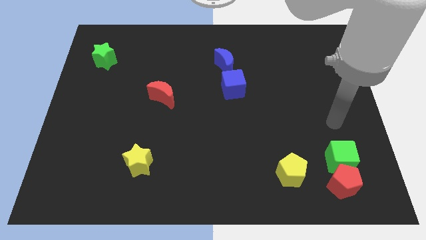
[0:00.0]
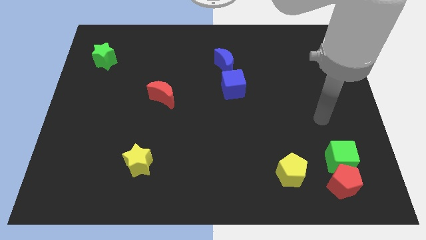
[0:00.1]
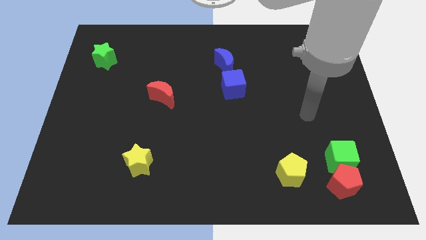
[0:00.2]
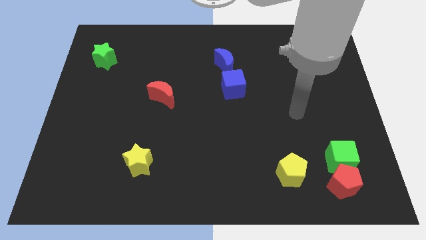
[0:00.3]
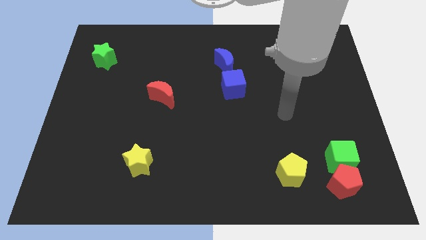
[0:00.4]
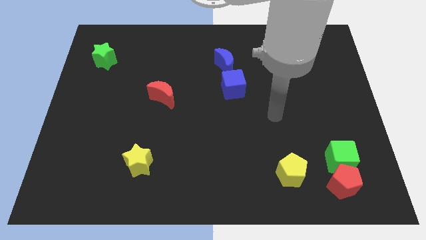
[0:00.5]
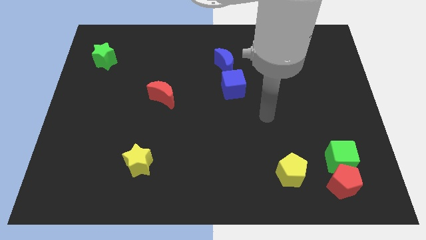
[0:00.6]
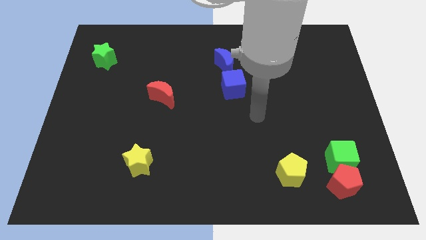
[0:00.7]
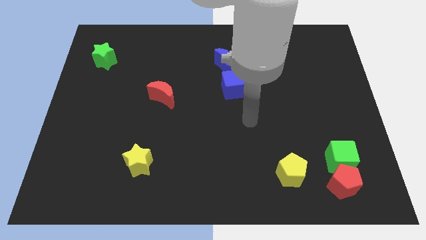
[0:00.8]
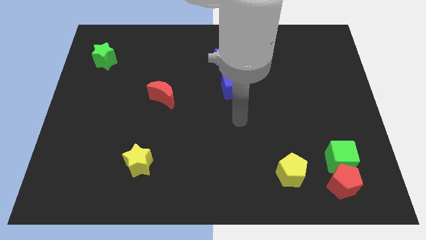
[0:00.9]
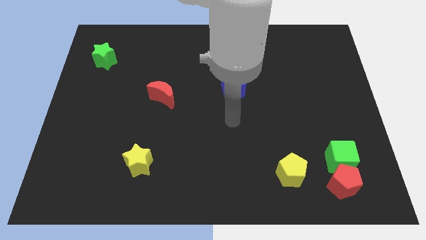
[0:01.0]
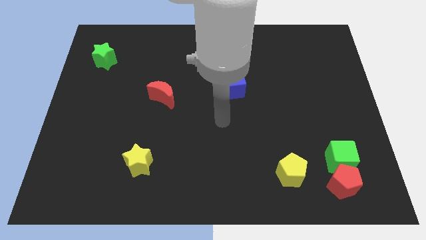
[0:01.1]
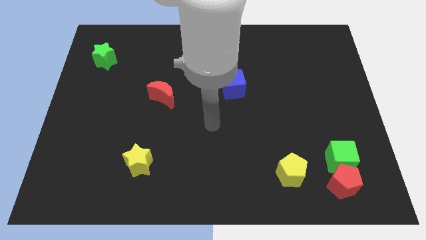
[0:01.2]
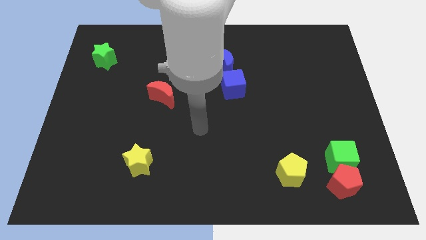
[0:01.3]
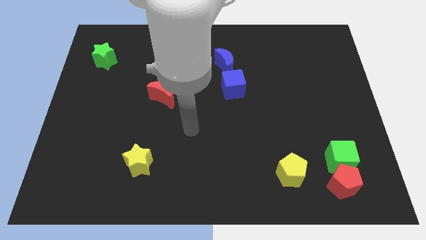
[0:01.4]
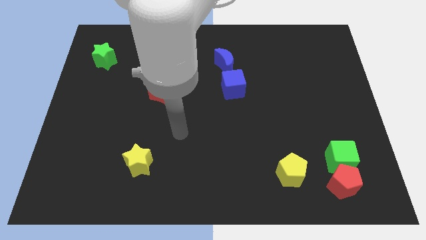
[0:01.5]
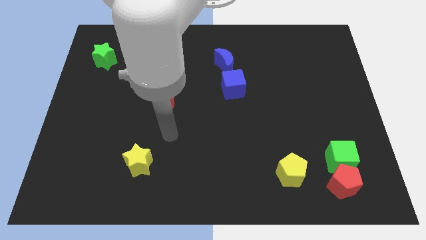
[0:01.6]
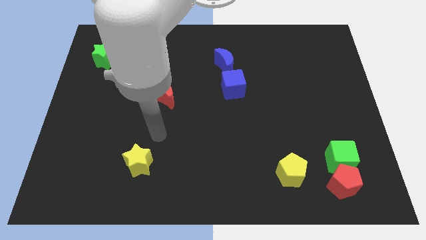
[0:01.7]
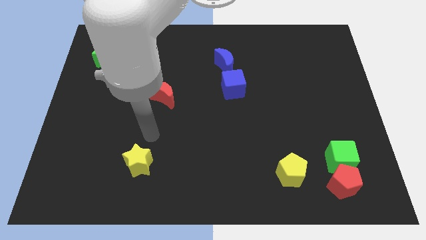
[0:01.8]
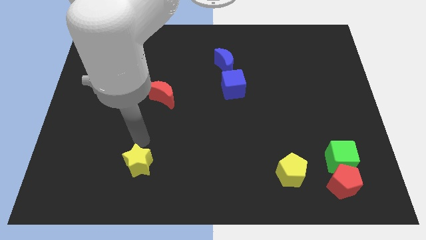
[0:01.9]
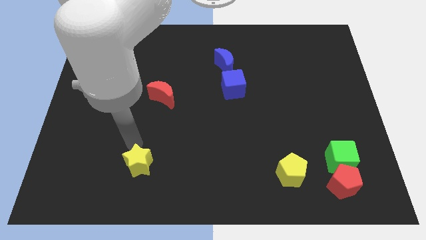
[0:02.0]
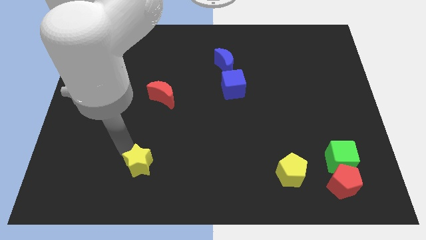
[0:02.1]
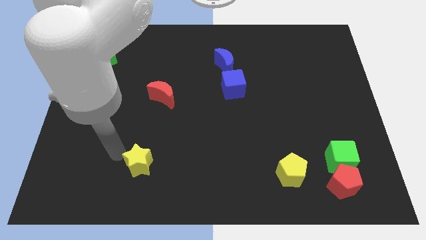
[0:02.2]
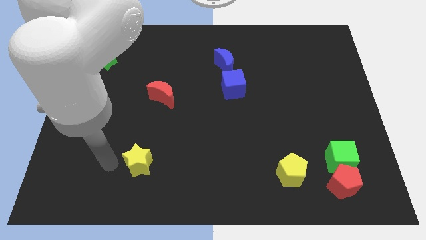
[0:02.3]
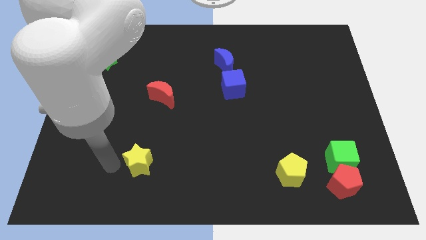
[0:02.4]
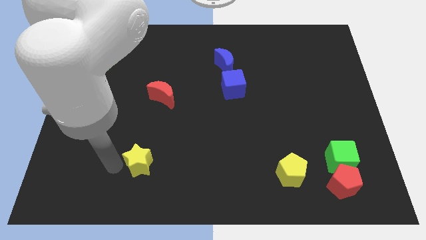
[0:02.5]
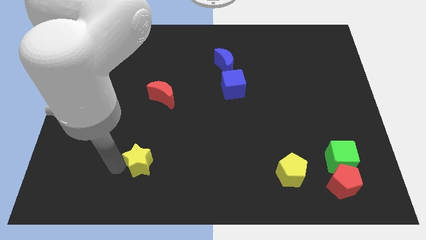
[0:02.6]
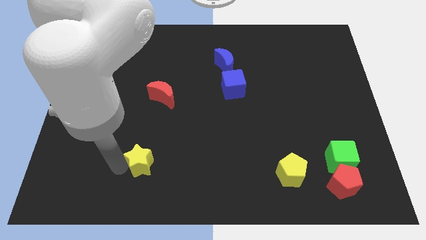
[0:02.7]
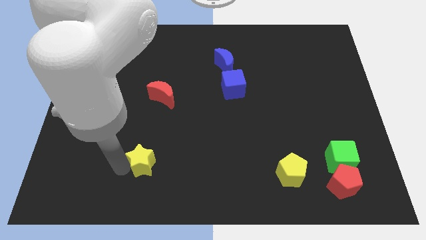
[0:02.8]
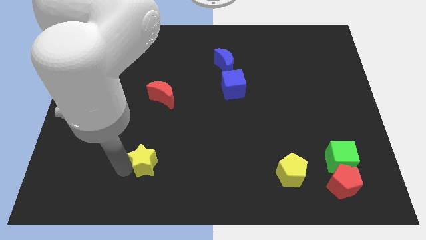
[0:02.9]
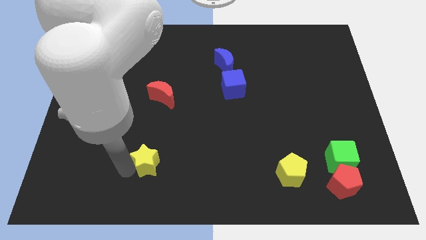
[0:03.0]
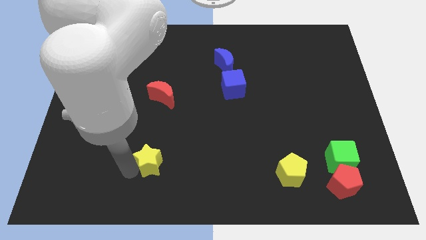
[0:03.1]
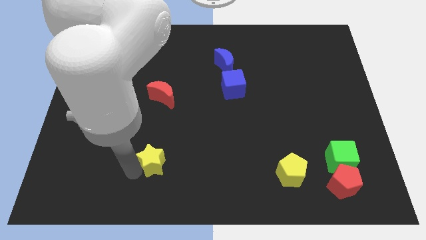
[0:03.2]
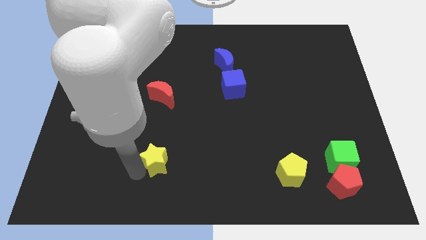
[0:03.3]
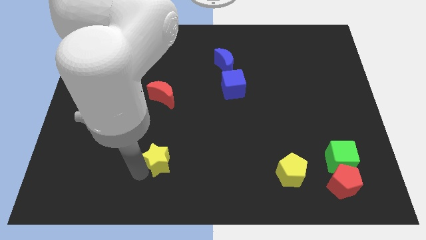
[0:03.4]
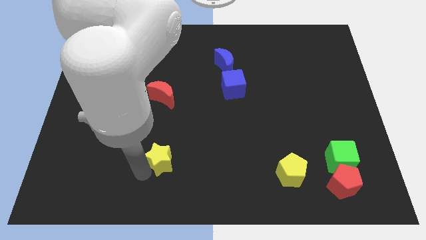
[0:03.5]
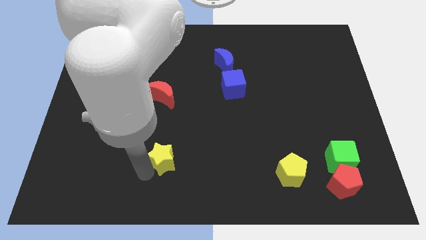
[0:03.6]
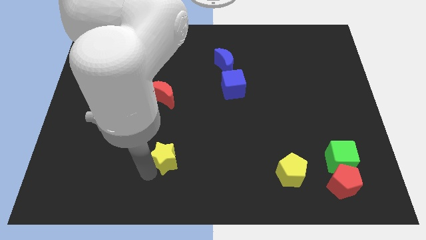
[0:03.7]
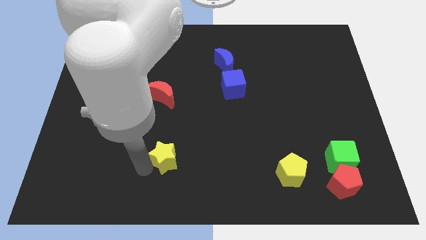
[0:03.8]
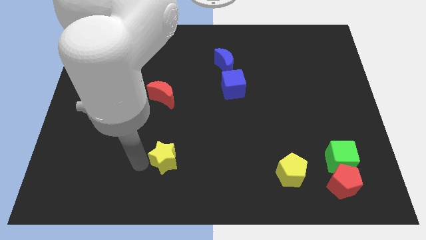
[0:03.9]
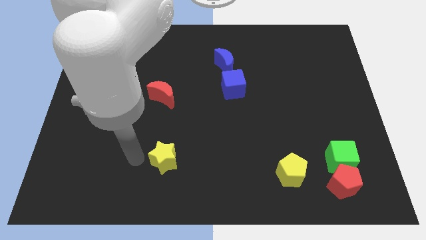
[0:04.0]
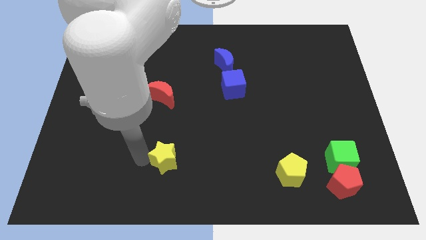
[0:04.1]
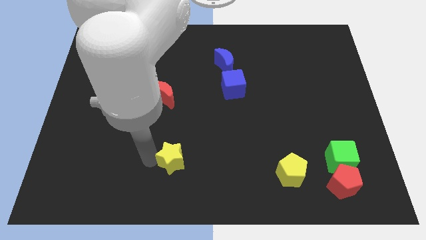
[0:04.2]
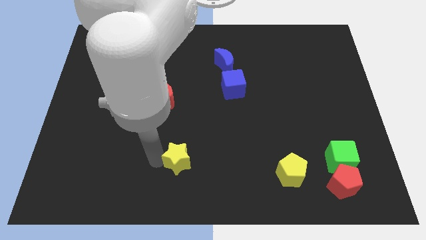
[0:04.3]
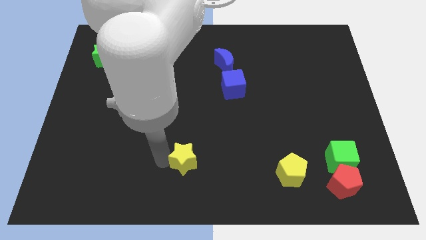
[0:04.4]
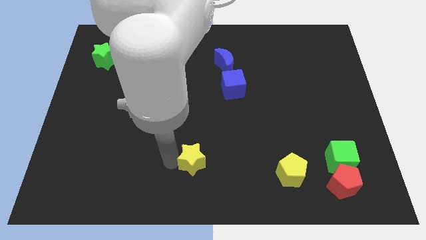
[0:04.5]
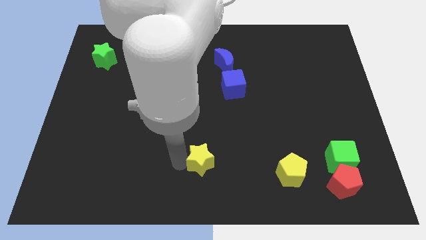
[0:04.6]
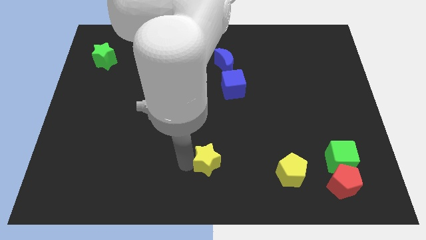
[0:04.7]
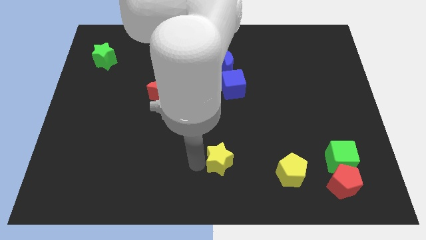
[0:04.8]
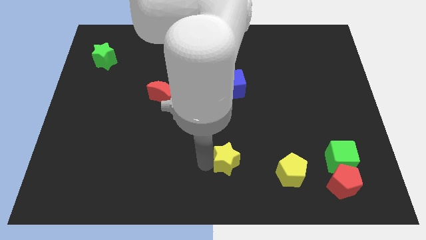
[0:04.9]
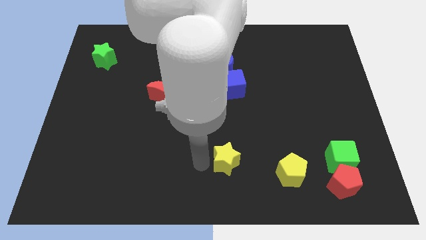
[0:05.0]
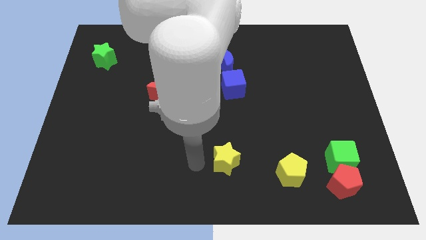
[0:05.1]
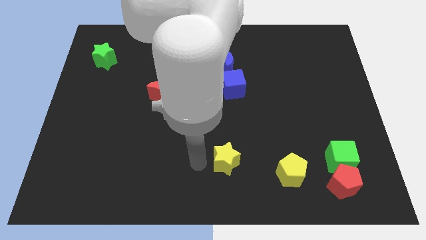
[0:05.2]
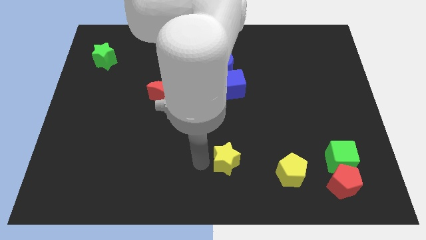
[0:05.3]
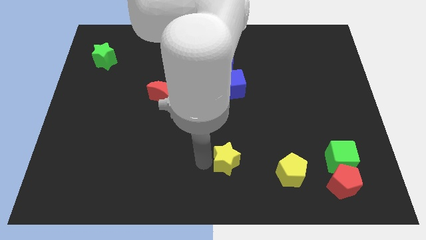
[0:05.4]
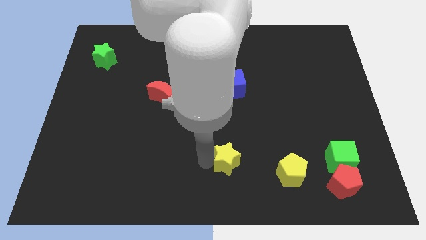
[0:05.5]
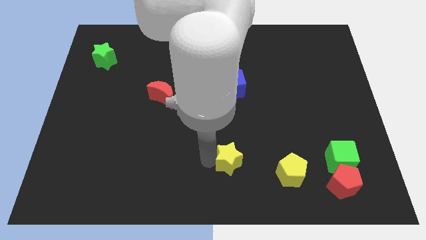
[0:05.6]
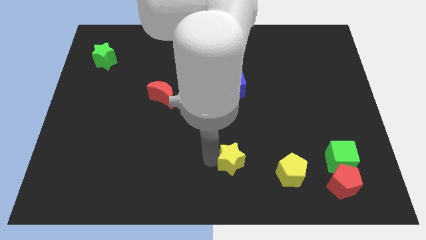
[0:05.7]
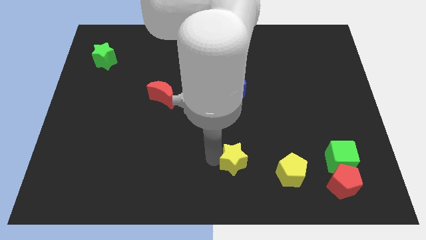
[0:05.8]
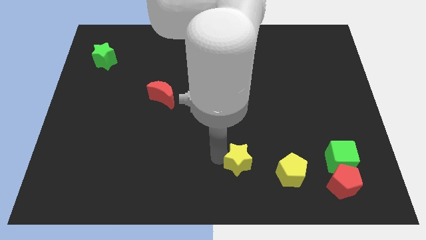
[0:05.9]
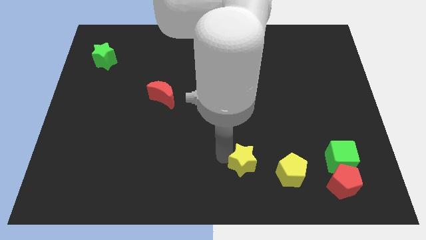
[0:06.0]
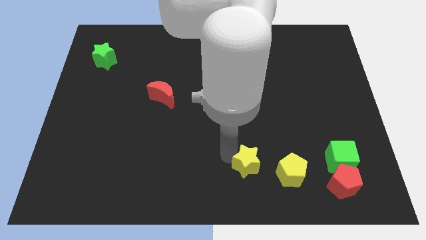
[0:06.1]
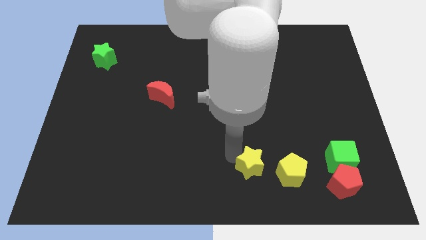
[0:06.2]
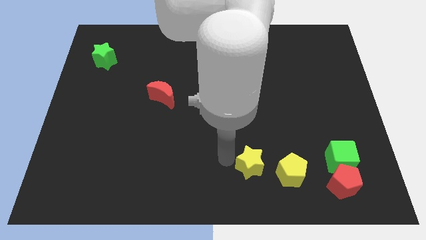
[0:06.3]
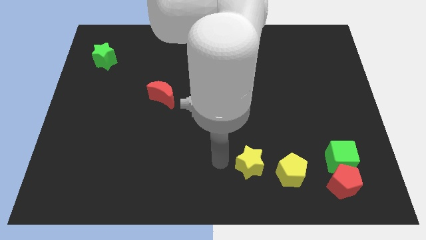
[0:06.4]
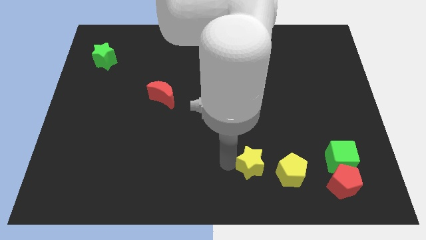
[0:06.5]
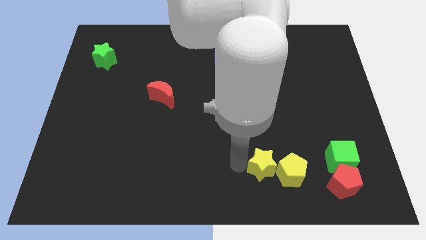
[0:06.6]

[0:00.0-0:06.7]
slide the yellow star to the yellow pentagon

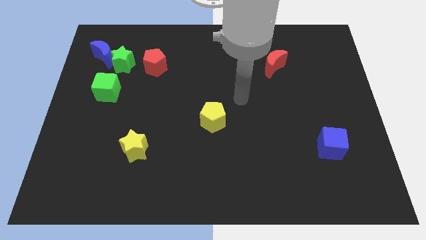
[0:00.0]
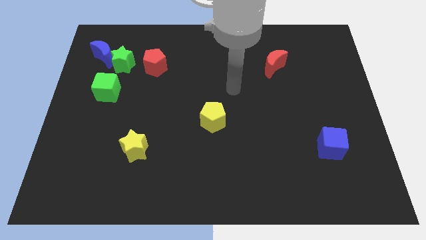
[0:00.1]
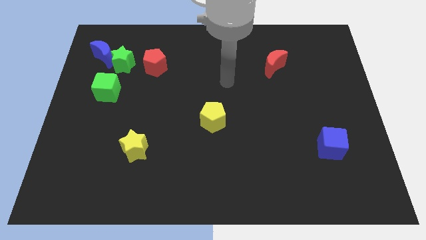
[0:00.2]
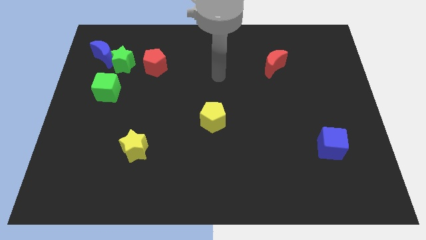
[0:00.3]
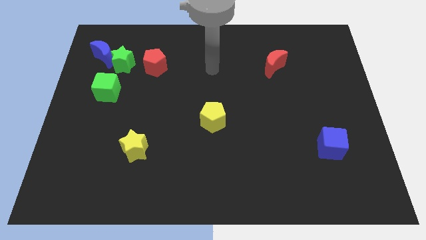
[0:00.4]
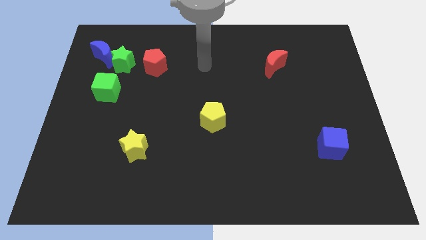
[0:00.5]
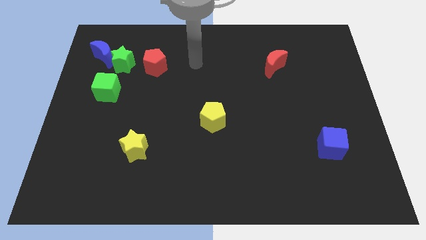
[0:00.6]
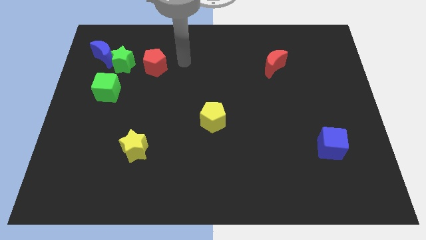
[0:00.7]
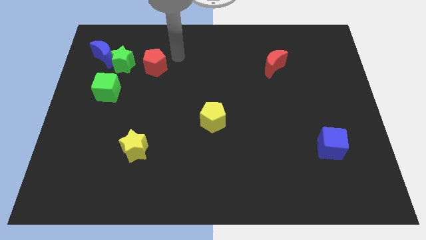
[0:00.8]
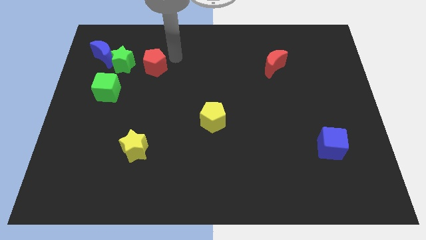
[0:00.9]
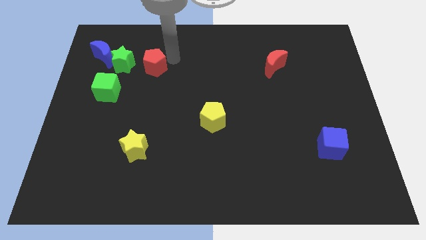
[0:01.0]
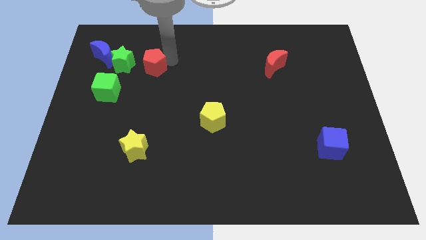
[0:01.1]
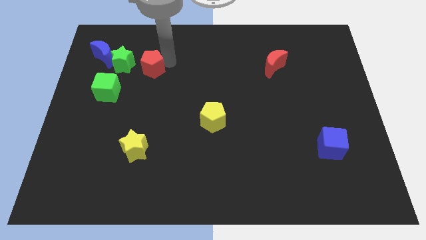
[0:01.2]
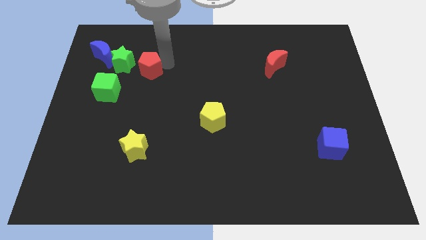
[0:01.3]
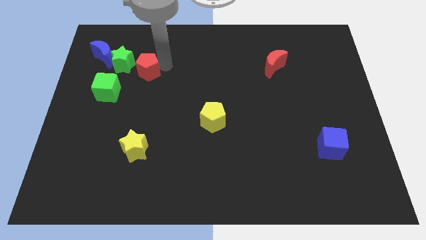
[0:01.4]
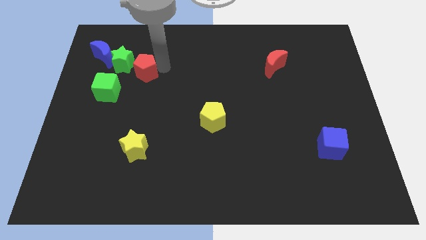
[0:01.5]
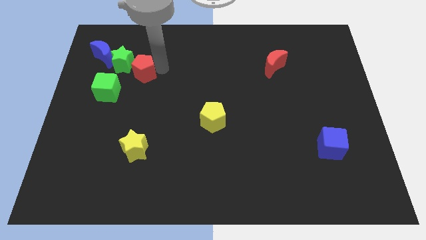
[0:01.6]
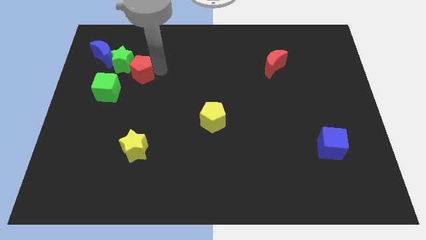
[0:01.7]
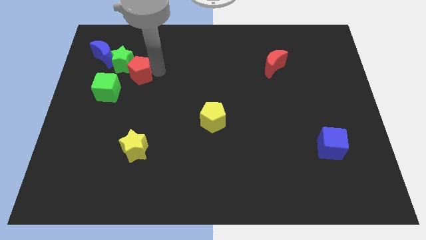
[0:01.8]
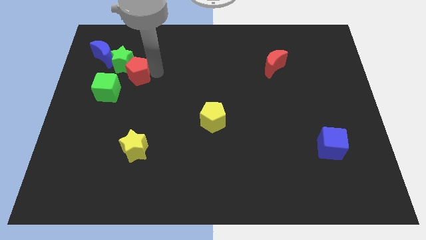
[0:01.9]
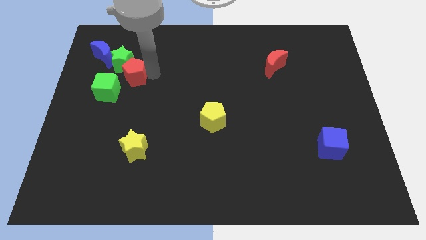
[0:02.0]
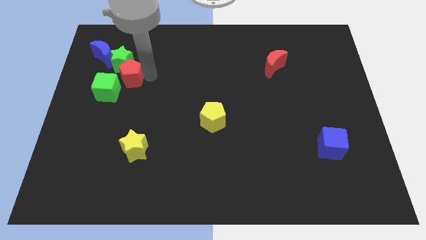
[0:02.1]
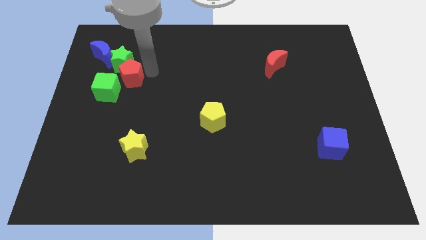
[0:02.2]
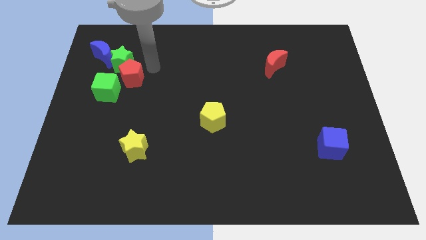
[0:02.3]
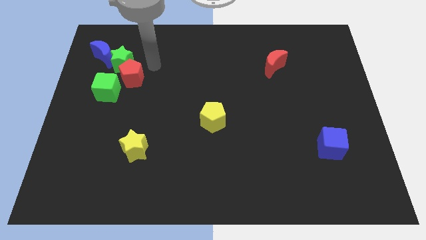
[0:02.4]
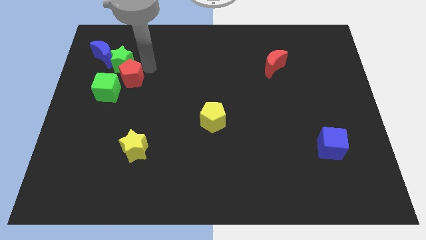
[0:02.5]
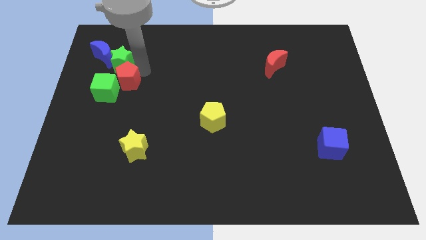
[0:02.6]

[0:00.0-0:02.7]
push the red pentagon towards the green cube
